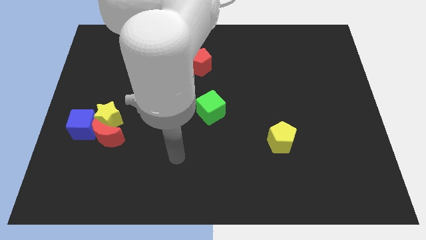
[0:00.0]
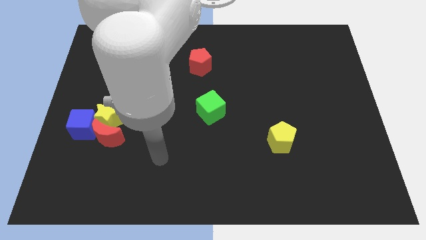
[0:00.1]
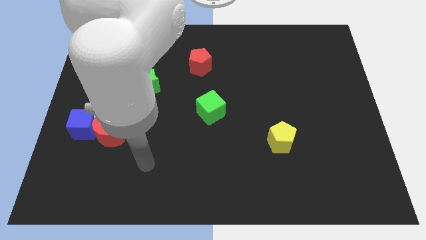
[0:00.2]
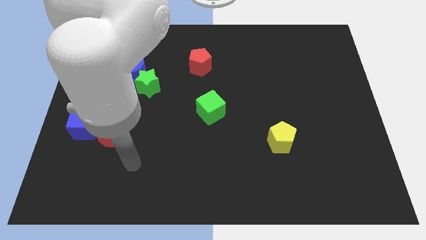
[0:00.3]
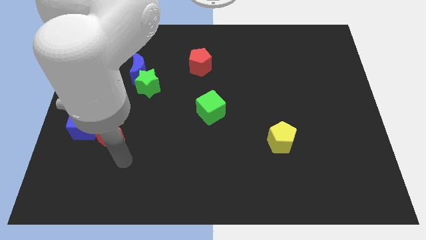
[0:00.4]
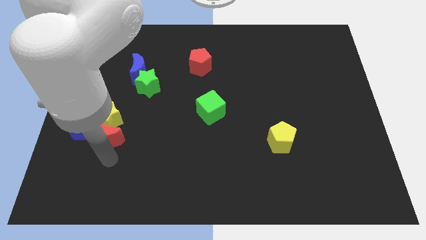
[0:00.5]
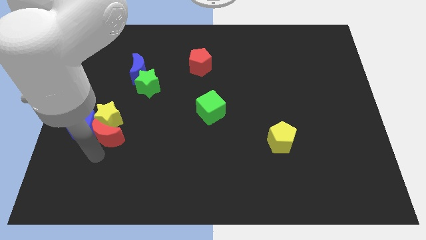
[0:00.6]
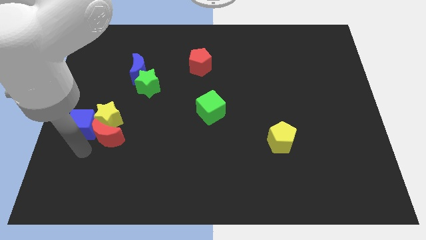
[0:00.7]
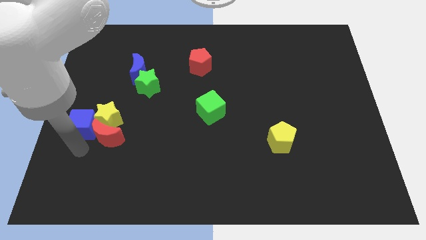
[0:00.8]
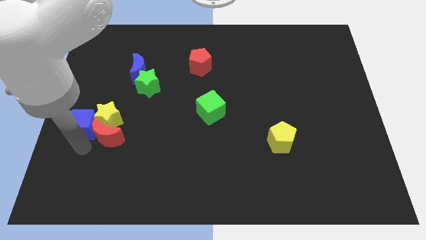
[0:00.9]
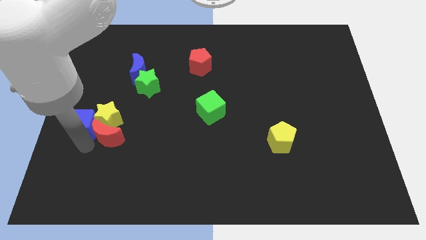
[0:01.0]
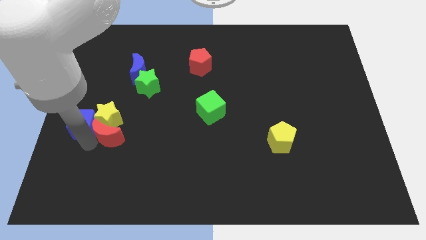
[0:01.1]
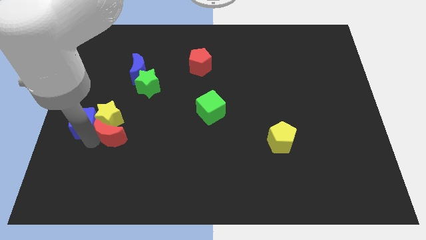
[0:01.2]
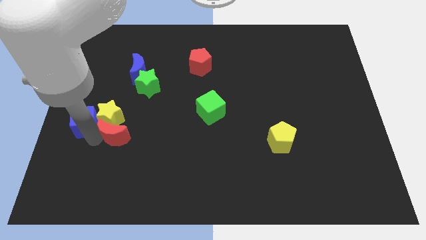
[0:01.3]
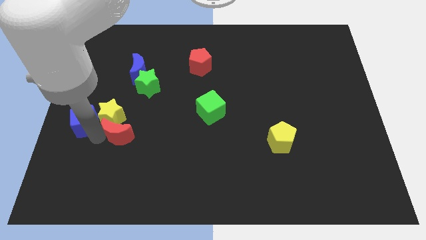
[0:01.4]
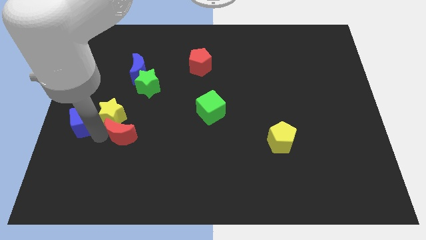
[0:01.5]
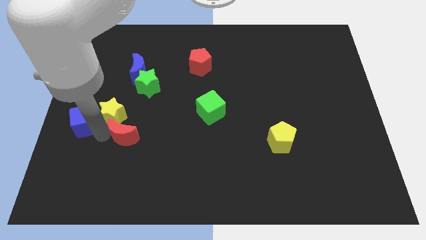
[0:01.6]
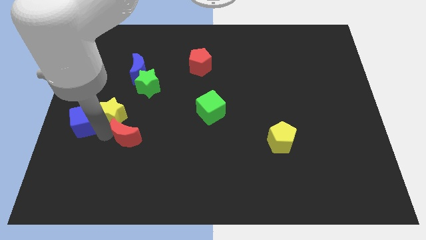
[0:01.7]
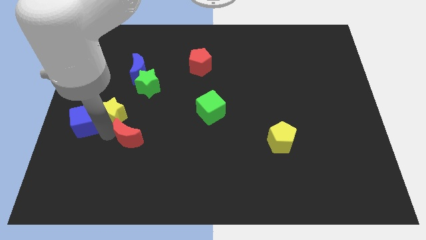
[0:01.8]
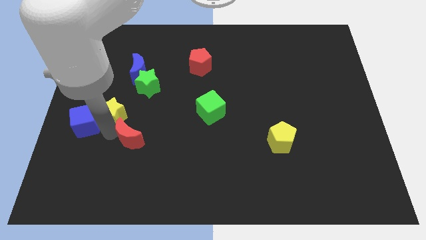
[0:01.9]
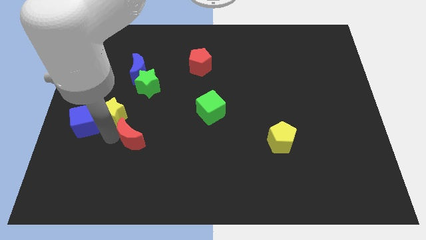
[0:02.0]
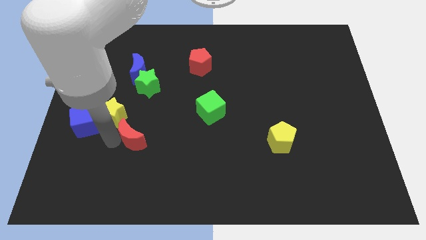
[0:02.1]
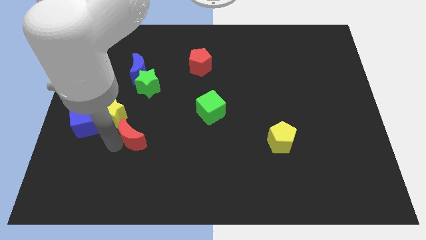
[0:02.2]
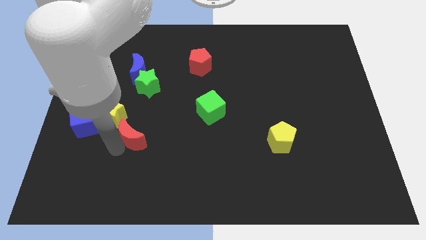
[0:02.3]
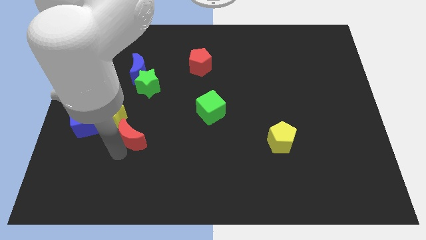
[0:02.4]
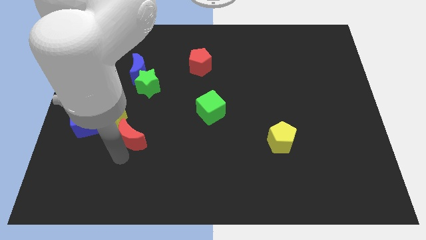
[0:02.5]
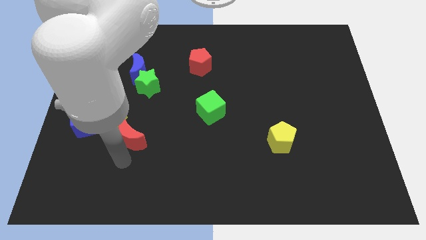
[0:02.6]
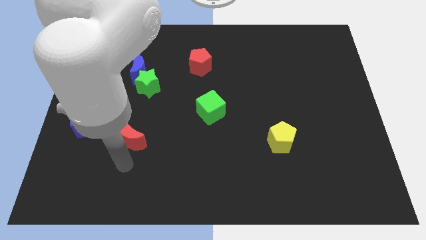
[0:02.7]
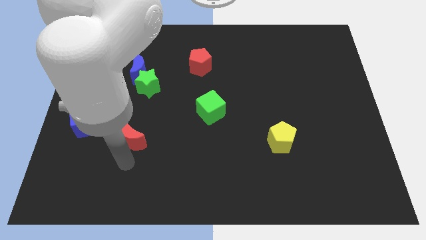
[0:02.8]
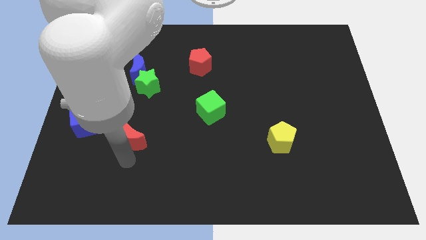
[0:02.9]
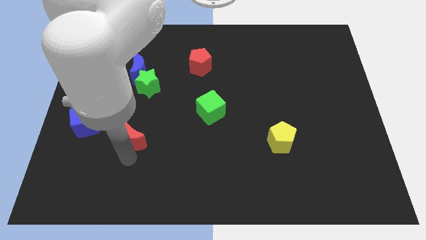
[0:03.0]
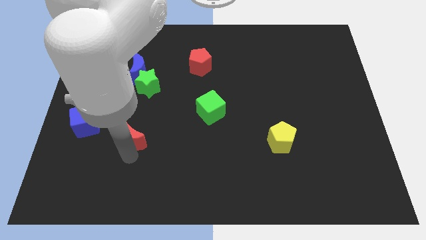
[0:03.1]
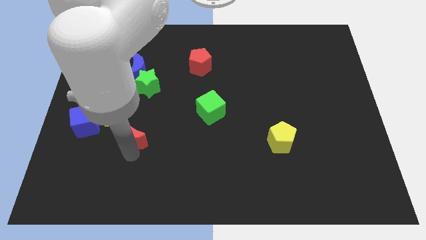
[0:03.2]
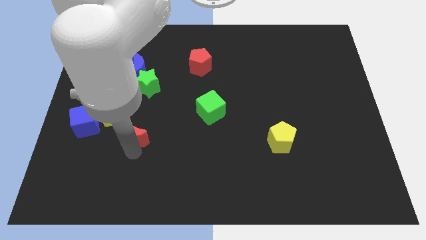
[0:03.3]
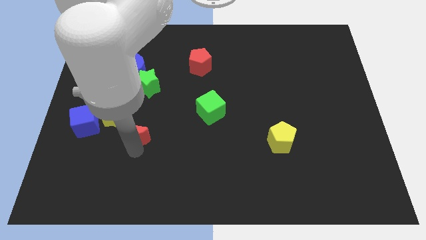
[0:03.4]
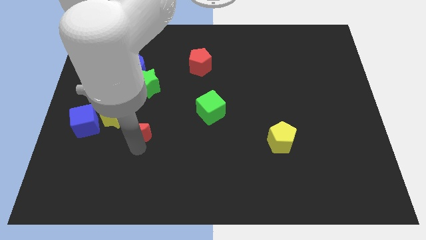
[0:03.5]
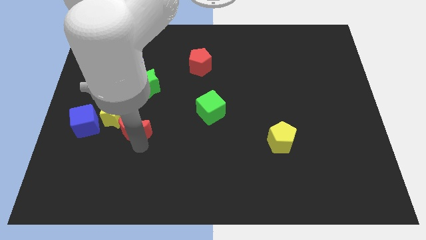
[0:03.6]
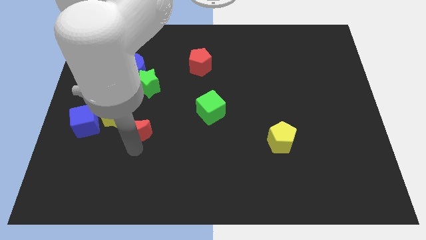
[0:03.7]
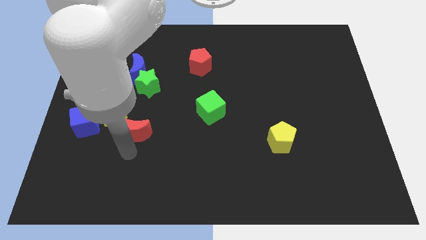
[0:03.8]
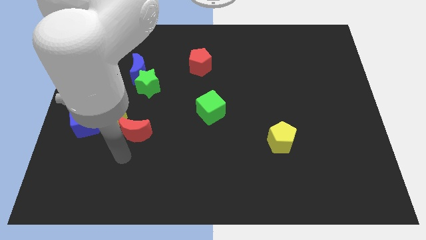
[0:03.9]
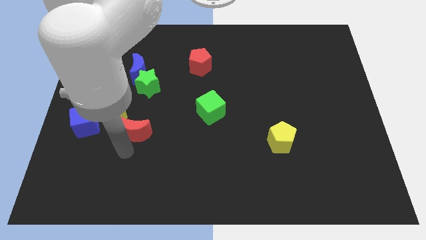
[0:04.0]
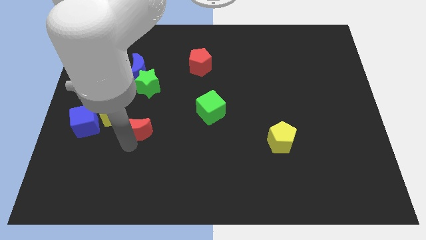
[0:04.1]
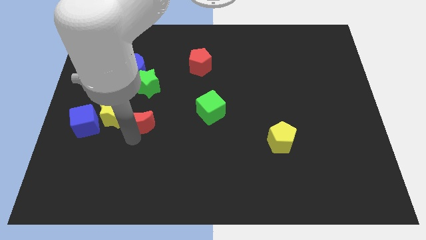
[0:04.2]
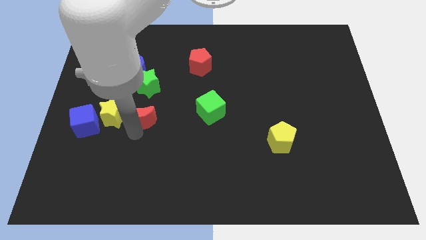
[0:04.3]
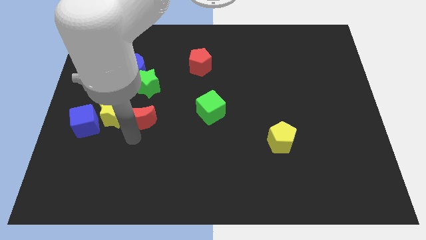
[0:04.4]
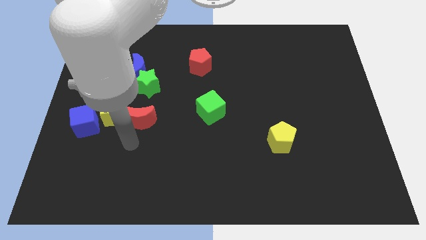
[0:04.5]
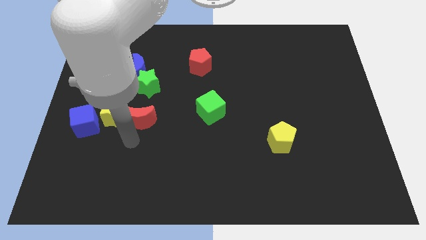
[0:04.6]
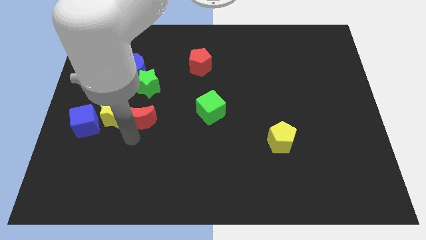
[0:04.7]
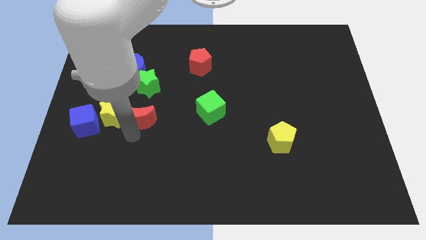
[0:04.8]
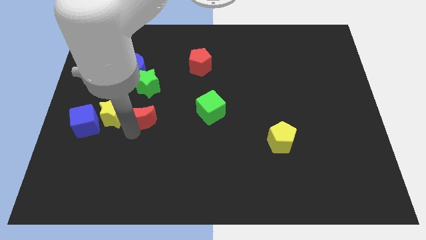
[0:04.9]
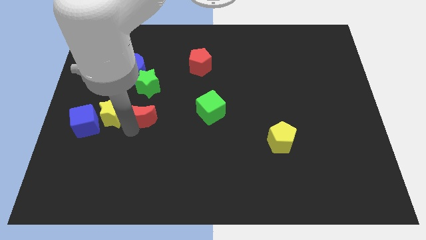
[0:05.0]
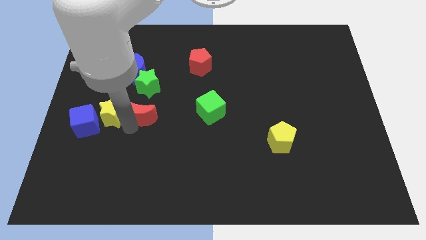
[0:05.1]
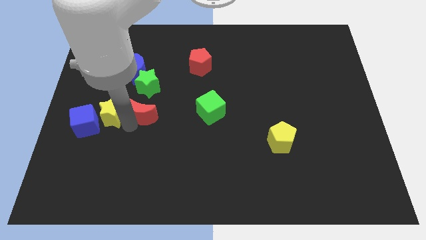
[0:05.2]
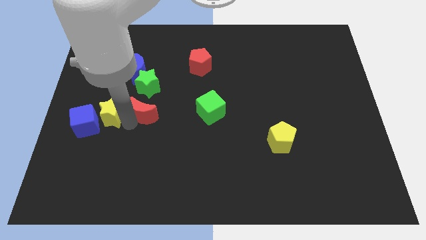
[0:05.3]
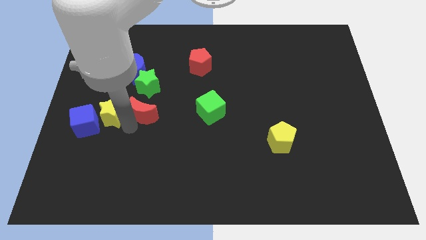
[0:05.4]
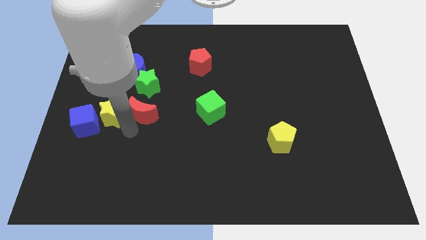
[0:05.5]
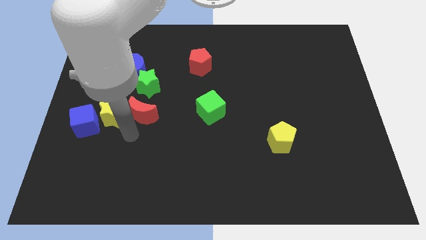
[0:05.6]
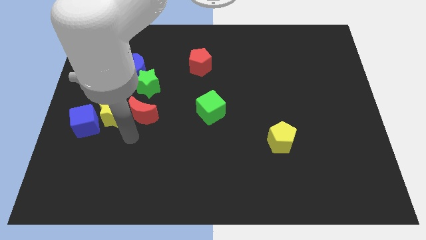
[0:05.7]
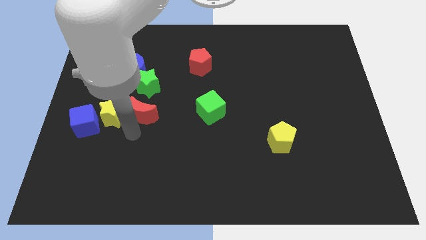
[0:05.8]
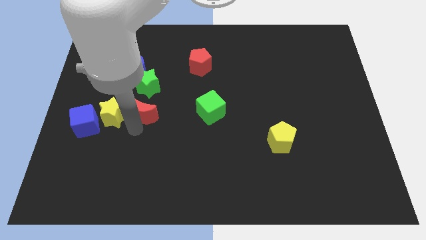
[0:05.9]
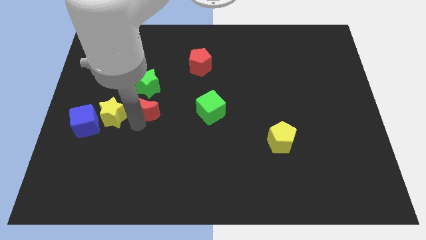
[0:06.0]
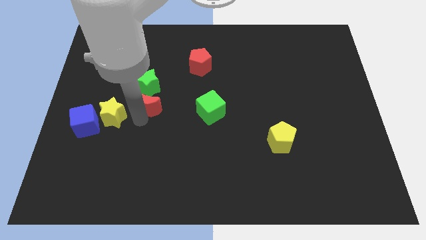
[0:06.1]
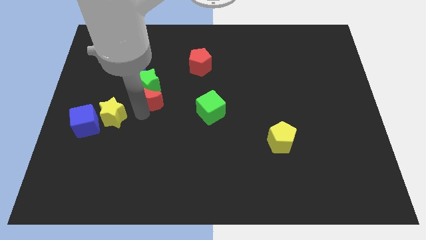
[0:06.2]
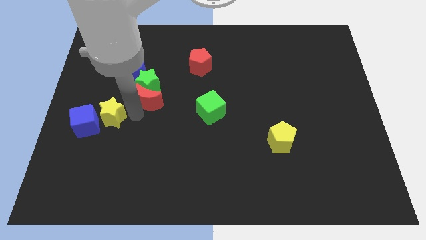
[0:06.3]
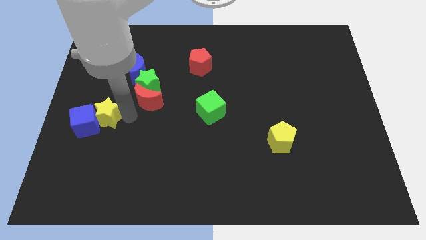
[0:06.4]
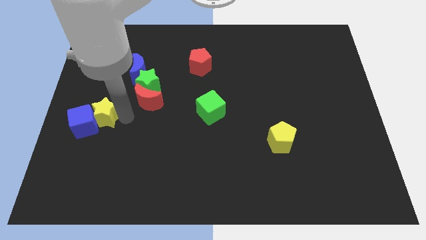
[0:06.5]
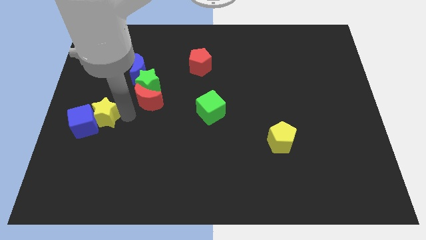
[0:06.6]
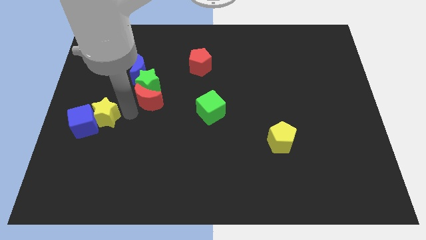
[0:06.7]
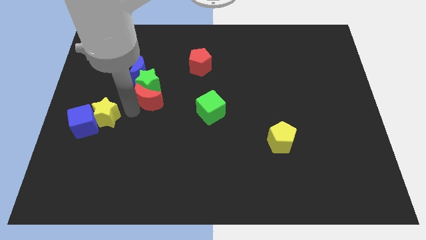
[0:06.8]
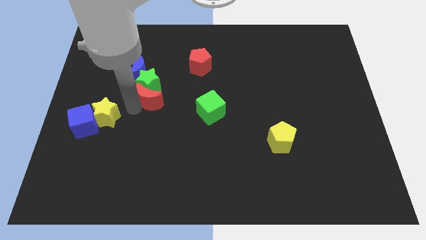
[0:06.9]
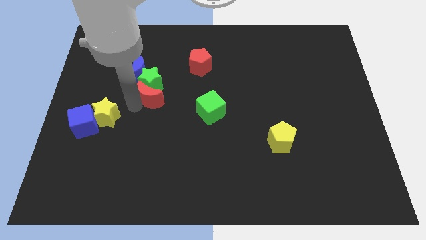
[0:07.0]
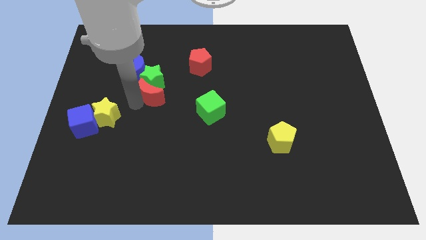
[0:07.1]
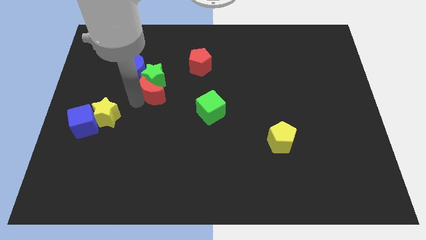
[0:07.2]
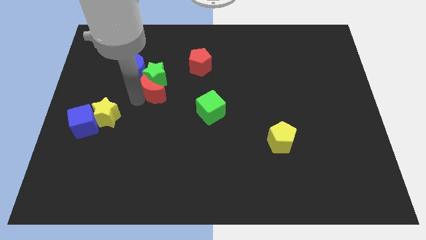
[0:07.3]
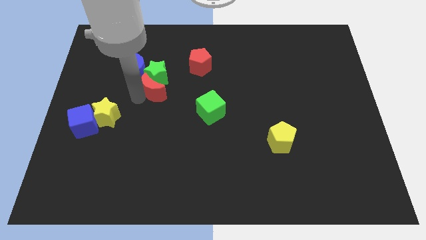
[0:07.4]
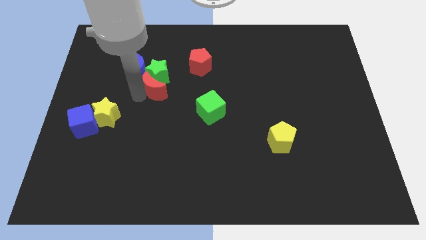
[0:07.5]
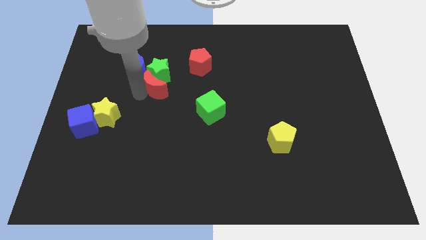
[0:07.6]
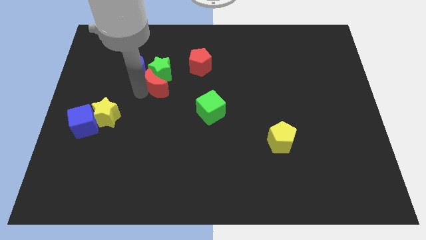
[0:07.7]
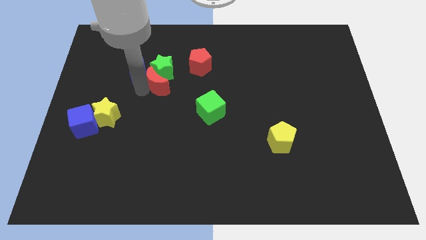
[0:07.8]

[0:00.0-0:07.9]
put the red moon to the bottom left of the red pentagon

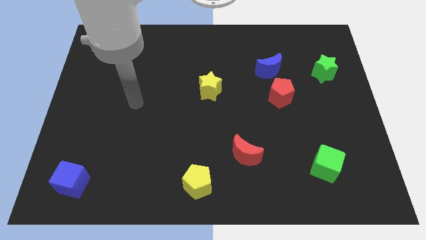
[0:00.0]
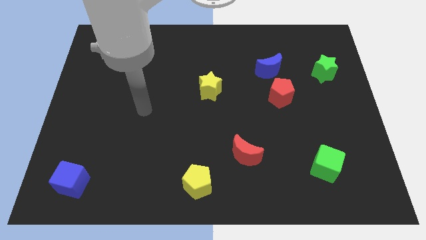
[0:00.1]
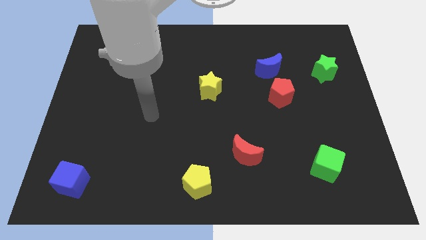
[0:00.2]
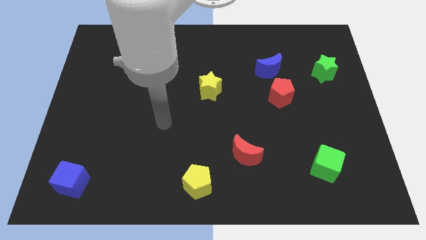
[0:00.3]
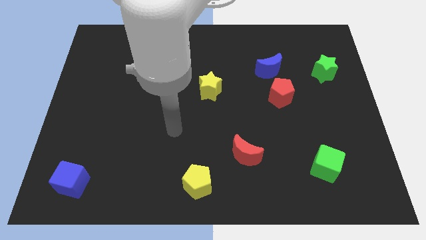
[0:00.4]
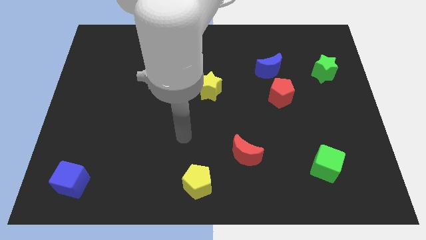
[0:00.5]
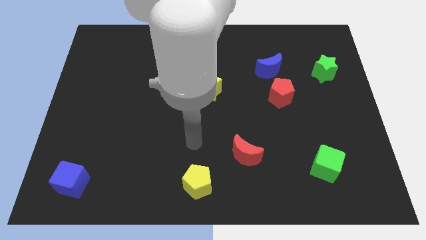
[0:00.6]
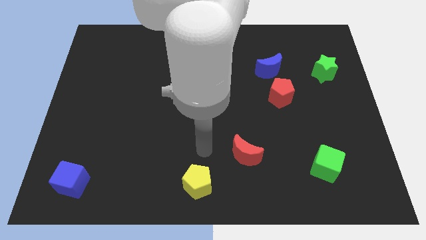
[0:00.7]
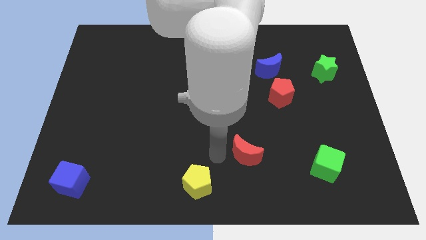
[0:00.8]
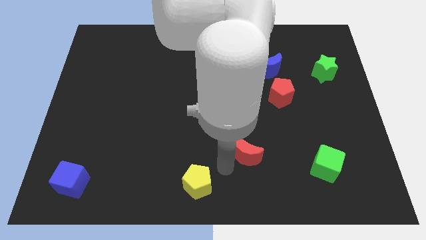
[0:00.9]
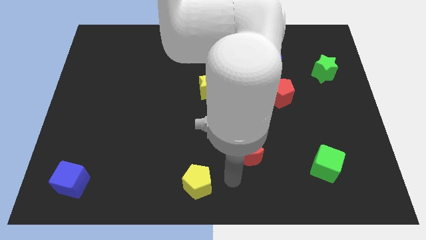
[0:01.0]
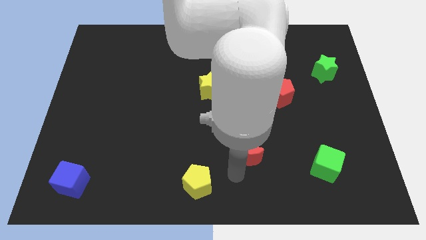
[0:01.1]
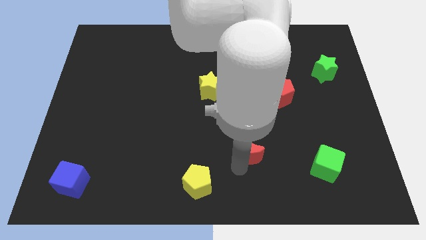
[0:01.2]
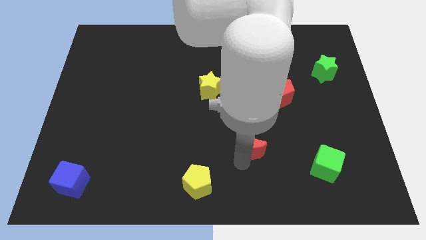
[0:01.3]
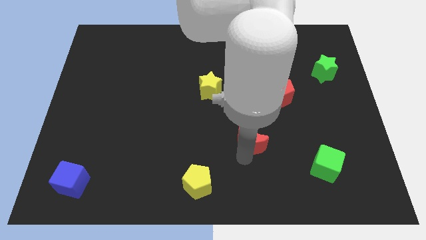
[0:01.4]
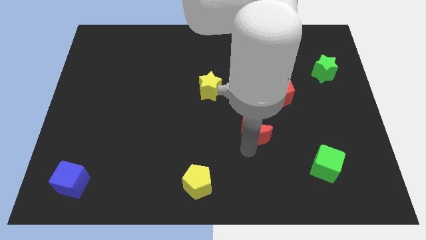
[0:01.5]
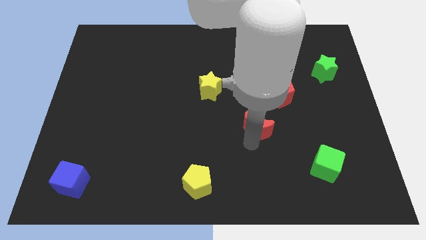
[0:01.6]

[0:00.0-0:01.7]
slide the red moon to the bottom left of the red pentagon
